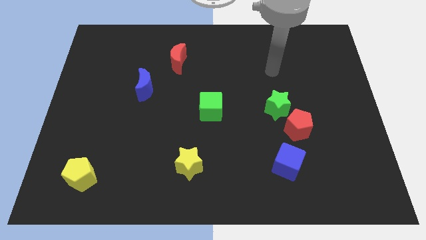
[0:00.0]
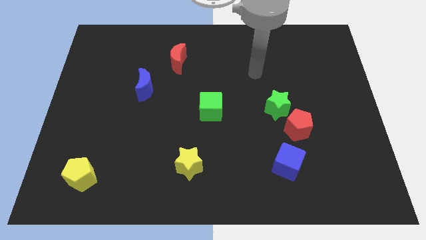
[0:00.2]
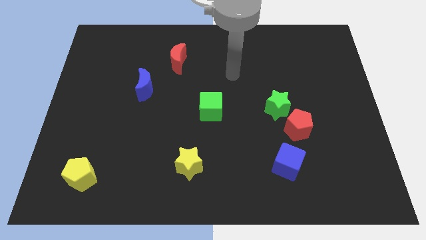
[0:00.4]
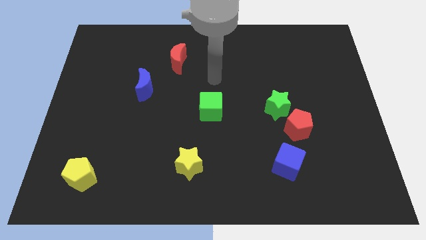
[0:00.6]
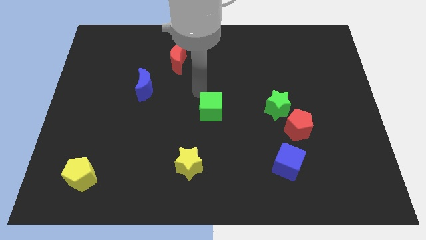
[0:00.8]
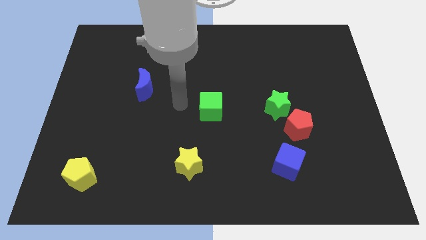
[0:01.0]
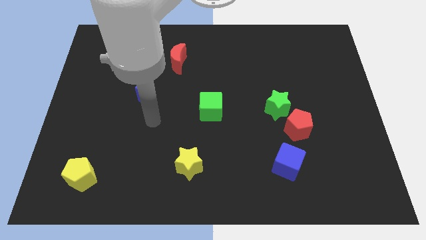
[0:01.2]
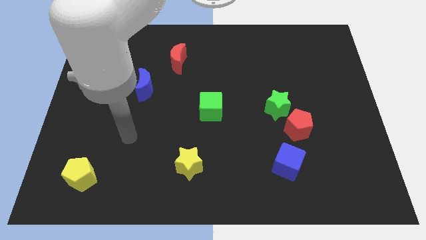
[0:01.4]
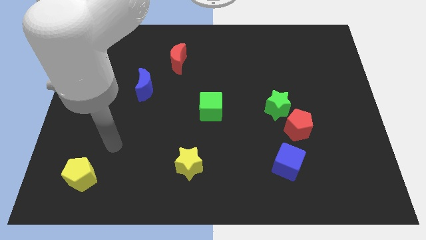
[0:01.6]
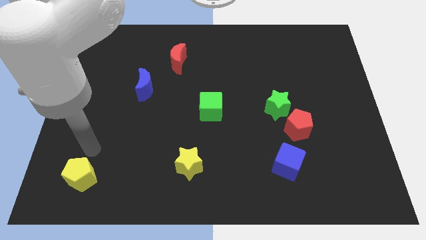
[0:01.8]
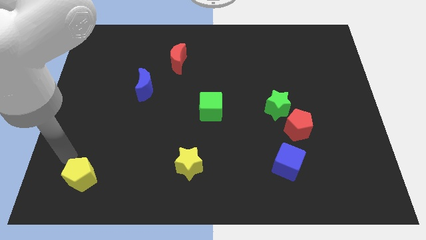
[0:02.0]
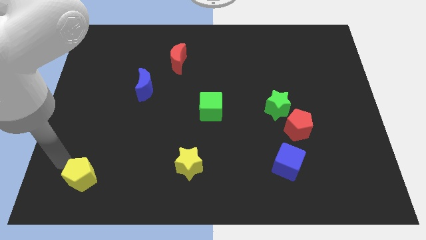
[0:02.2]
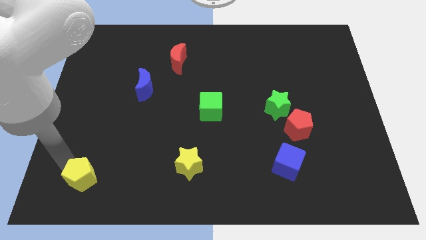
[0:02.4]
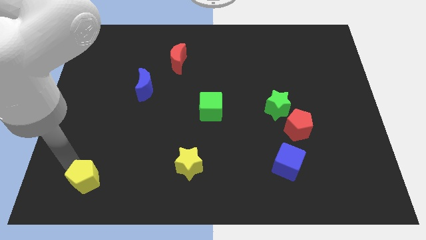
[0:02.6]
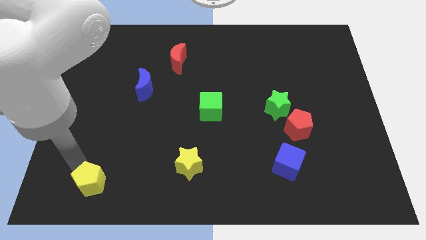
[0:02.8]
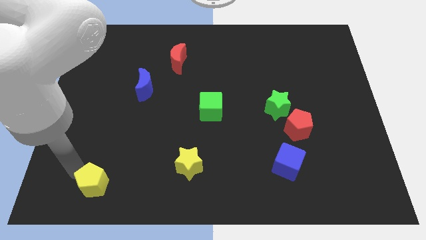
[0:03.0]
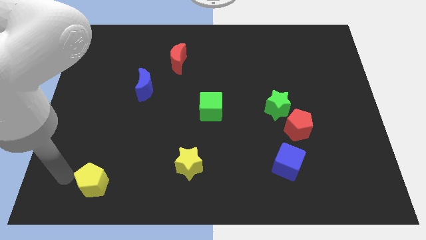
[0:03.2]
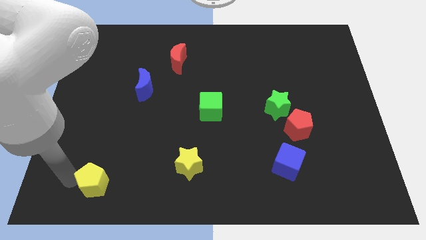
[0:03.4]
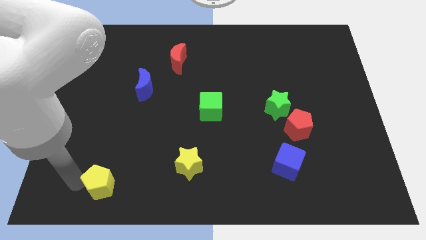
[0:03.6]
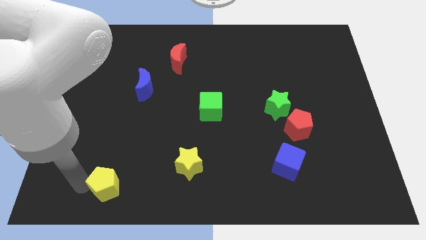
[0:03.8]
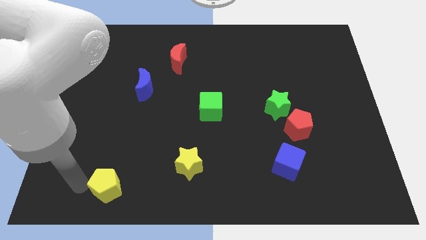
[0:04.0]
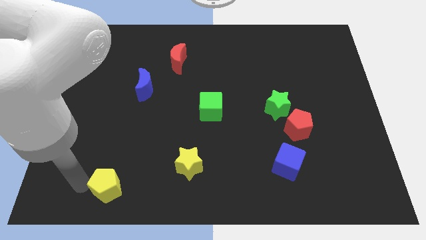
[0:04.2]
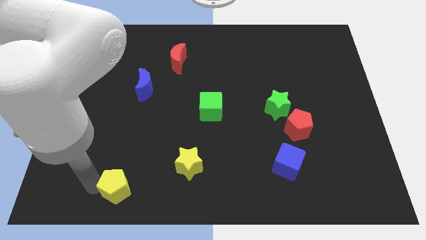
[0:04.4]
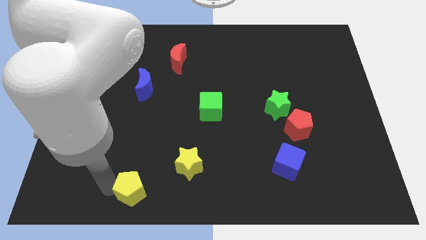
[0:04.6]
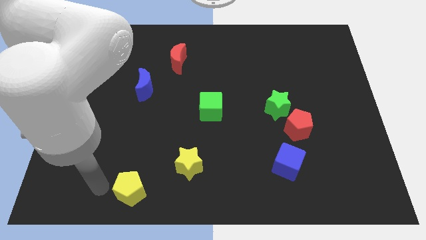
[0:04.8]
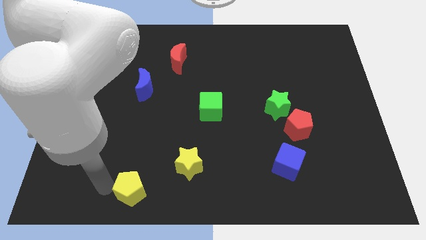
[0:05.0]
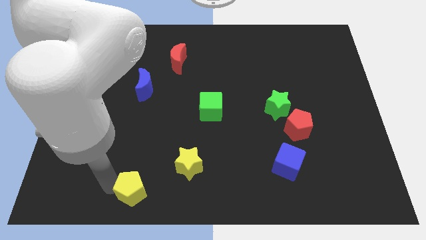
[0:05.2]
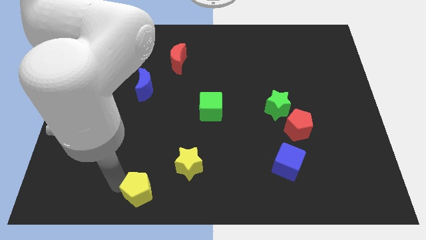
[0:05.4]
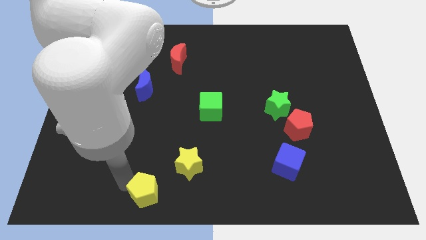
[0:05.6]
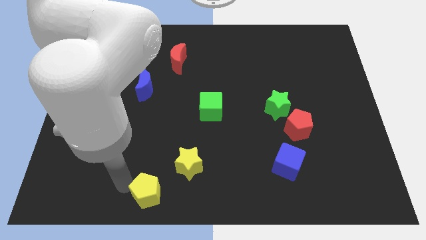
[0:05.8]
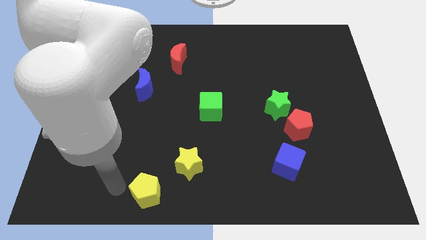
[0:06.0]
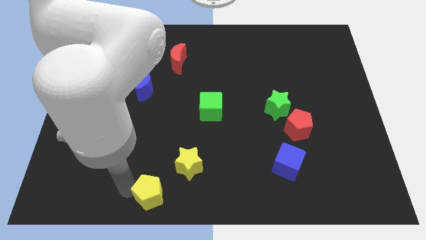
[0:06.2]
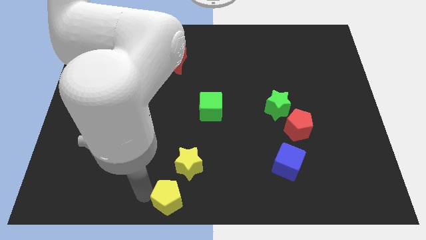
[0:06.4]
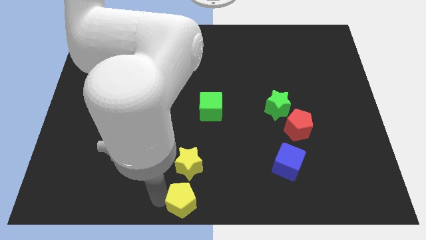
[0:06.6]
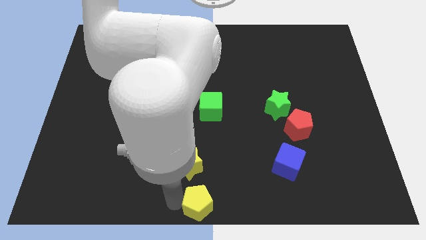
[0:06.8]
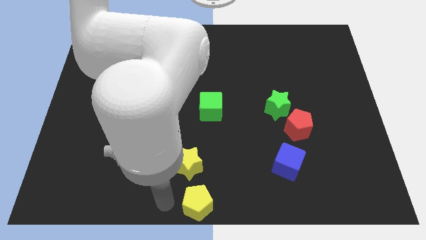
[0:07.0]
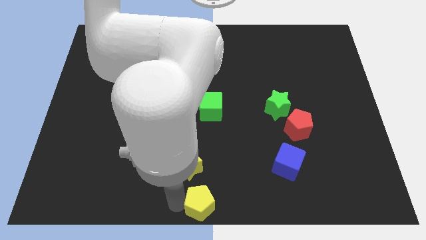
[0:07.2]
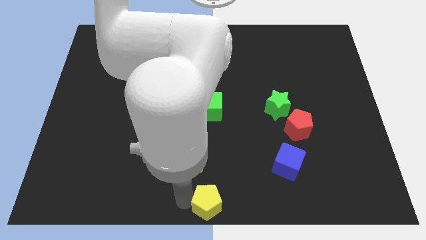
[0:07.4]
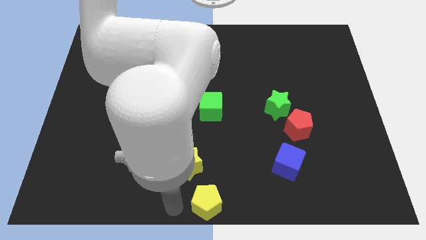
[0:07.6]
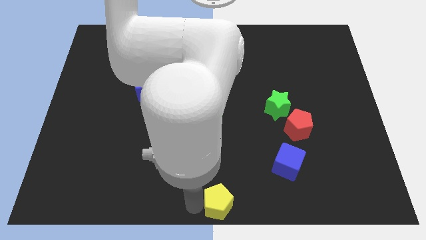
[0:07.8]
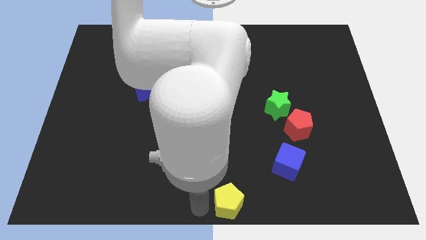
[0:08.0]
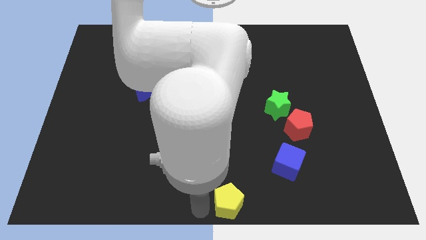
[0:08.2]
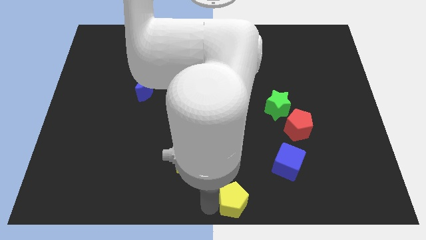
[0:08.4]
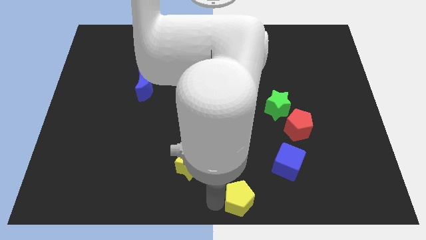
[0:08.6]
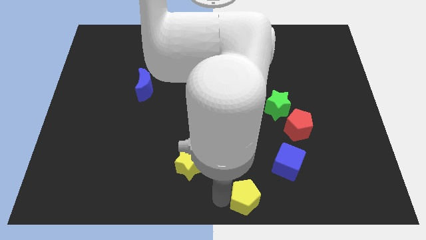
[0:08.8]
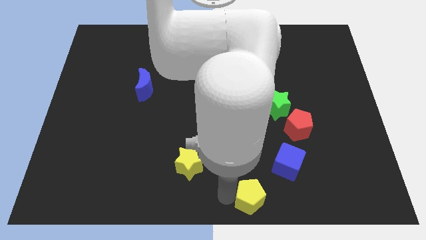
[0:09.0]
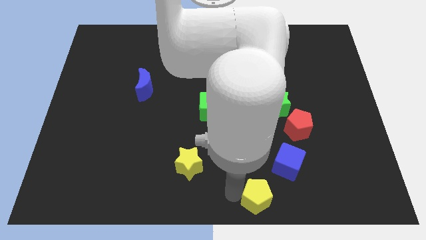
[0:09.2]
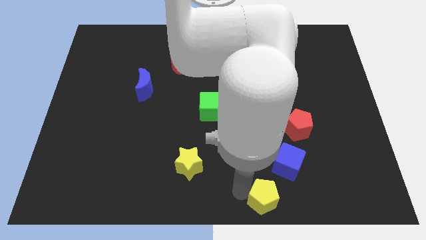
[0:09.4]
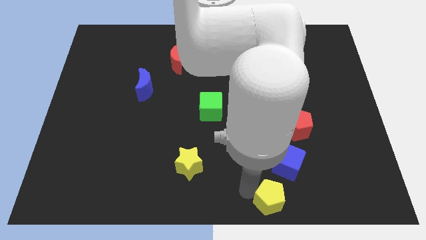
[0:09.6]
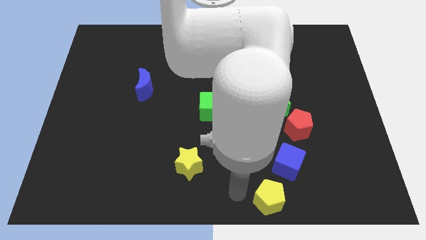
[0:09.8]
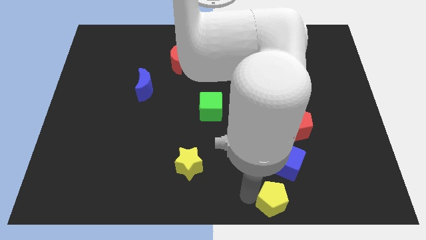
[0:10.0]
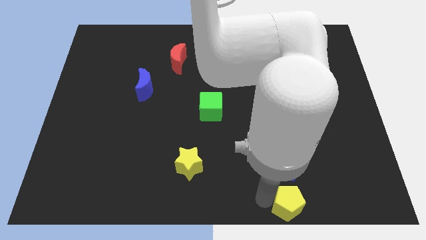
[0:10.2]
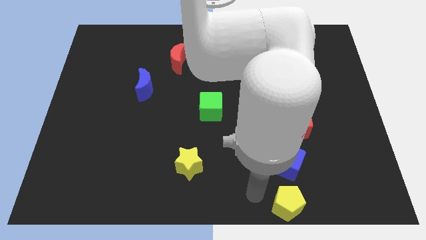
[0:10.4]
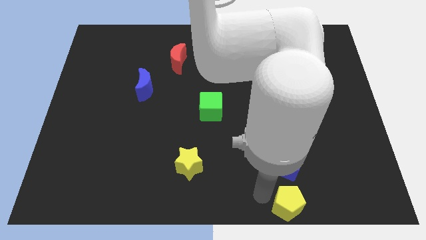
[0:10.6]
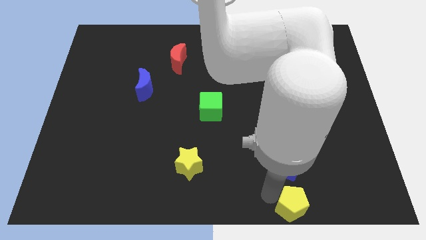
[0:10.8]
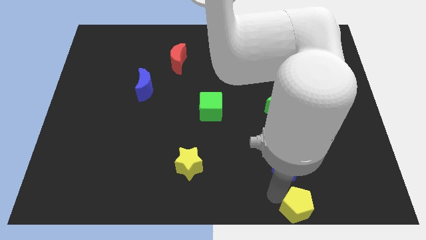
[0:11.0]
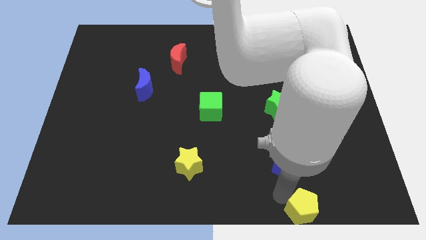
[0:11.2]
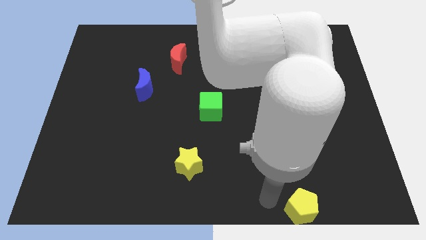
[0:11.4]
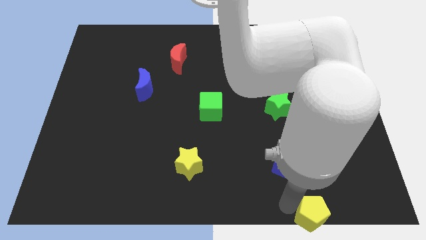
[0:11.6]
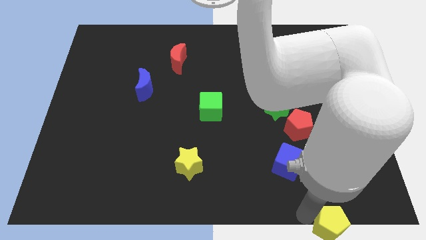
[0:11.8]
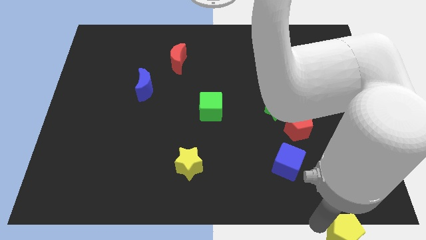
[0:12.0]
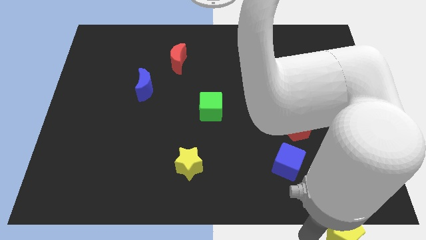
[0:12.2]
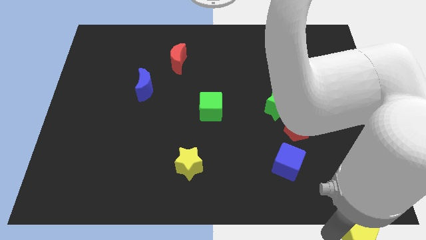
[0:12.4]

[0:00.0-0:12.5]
move the yellow pentagon to the bottom right corner
